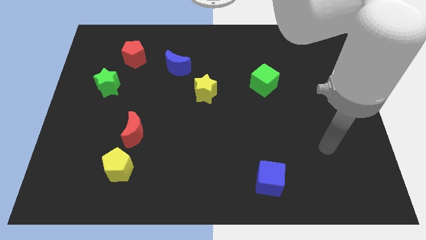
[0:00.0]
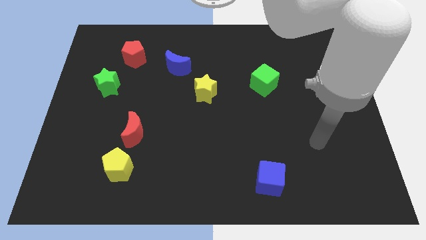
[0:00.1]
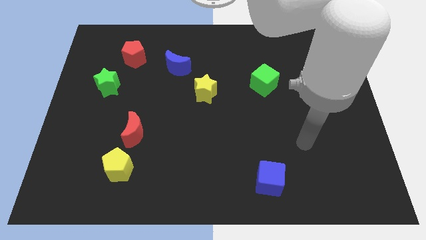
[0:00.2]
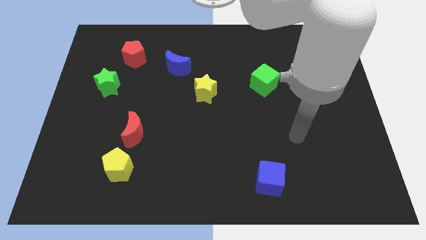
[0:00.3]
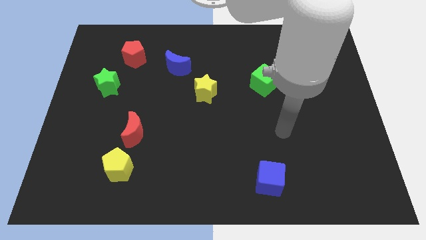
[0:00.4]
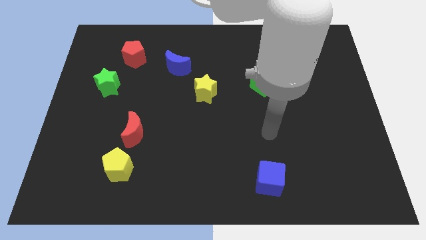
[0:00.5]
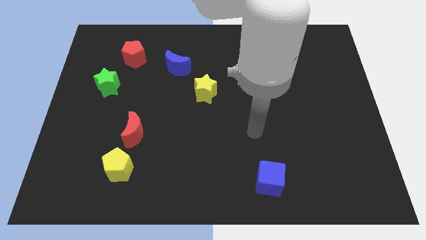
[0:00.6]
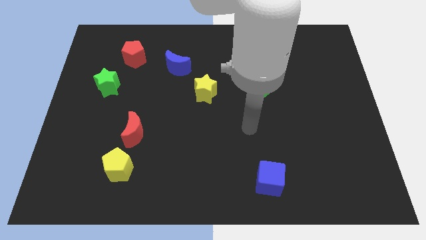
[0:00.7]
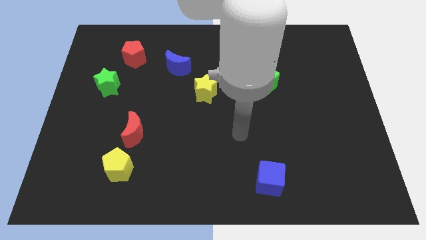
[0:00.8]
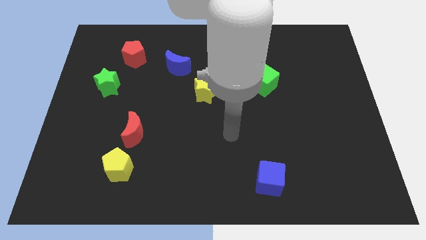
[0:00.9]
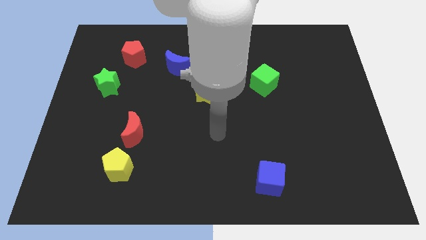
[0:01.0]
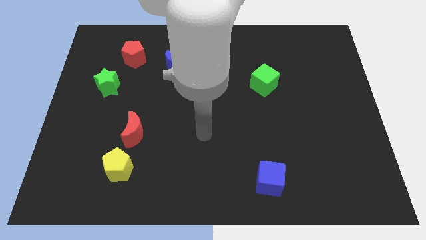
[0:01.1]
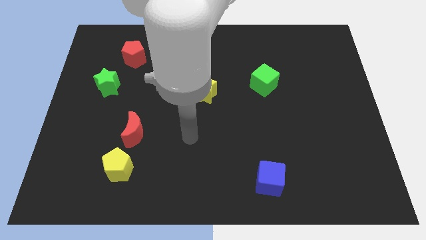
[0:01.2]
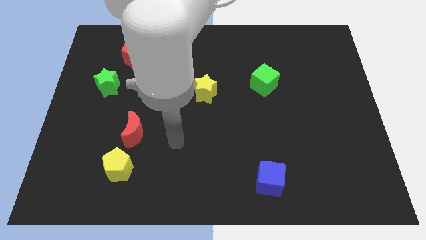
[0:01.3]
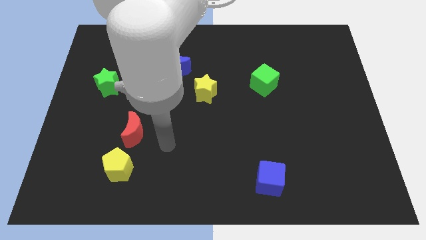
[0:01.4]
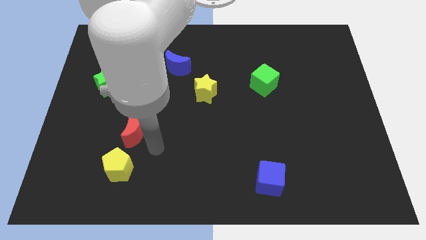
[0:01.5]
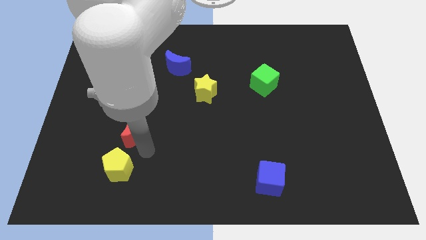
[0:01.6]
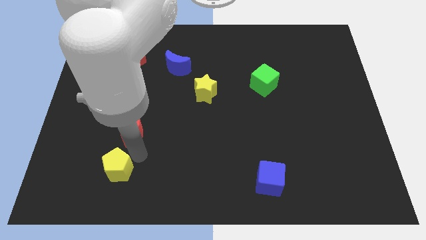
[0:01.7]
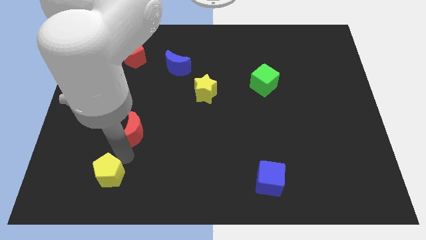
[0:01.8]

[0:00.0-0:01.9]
move the red moon away from the yellow pentagon

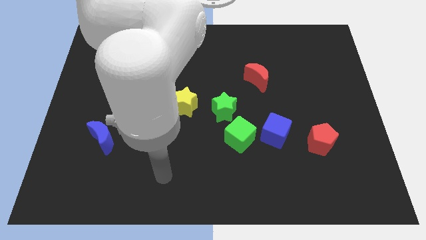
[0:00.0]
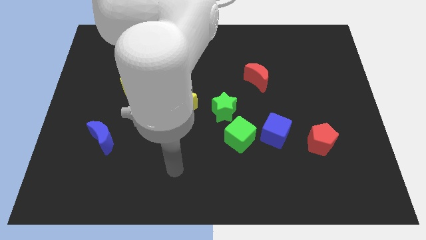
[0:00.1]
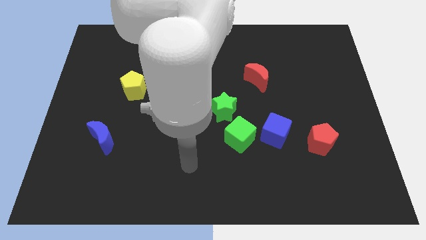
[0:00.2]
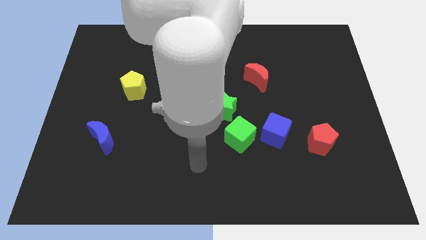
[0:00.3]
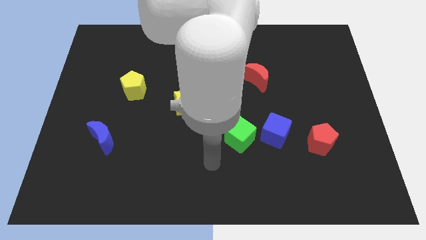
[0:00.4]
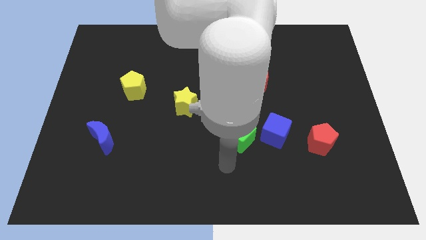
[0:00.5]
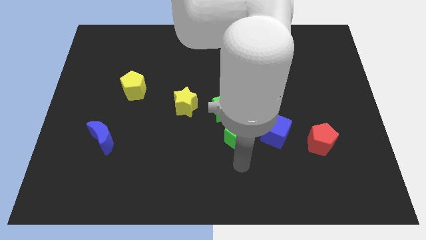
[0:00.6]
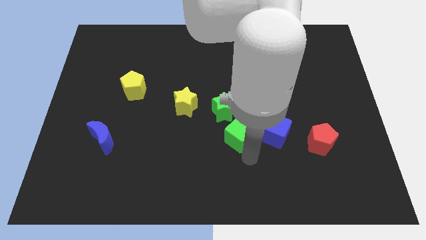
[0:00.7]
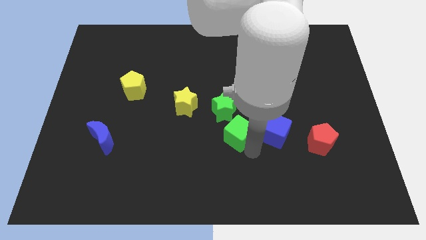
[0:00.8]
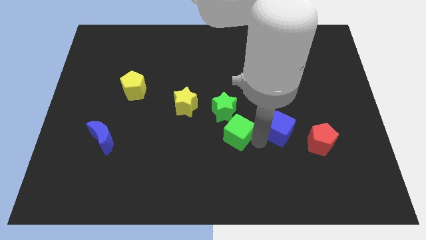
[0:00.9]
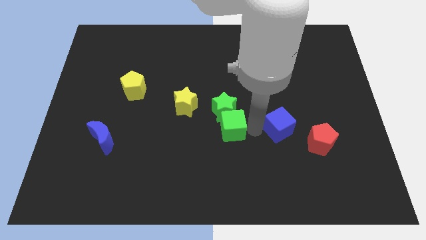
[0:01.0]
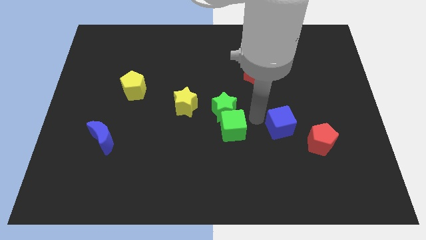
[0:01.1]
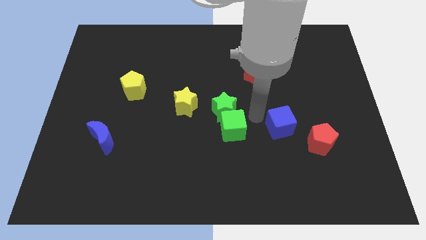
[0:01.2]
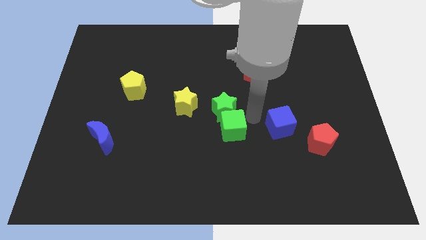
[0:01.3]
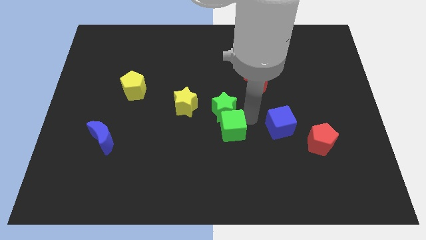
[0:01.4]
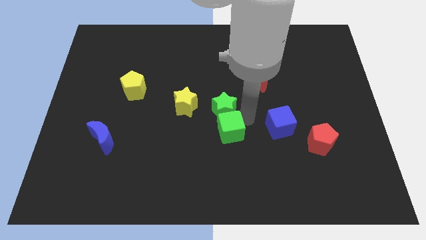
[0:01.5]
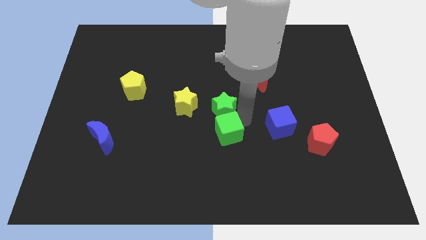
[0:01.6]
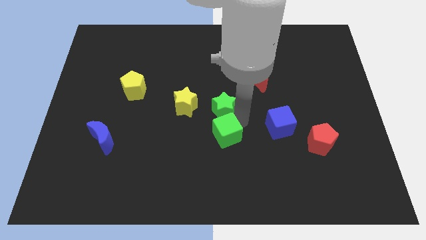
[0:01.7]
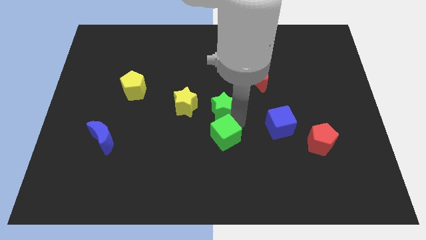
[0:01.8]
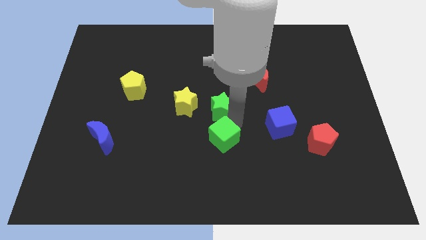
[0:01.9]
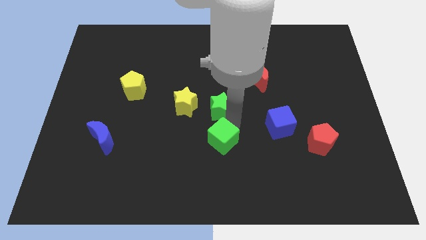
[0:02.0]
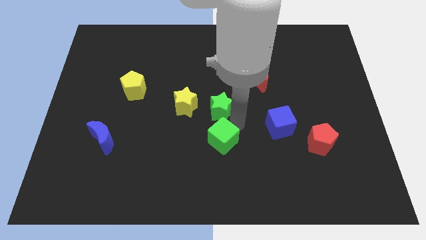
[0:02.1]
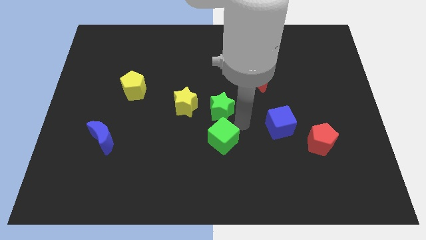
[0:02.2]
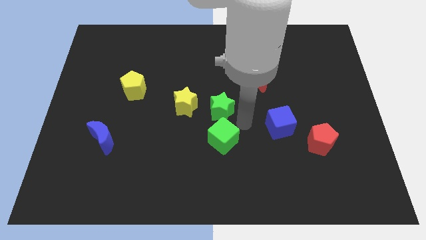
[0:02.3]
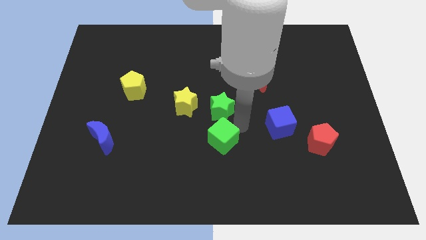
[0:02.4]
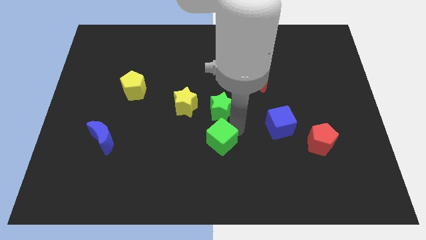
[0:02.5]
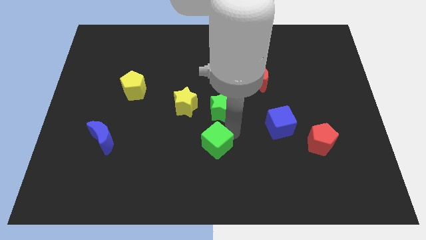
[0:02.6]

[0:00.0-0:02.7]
separate the green cube from the green star and blue cube

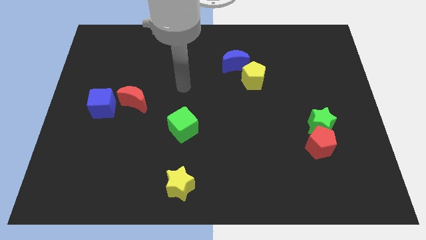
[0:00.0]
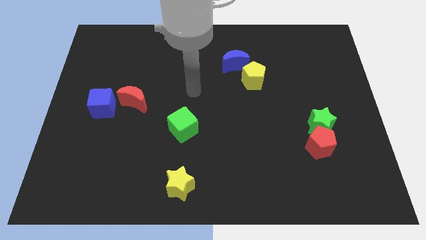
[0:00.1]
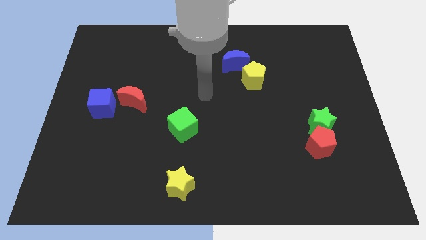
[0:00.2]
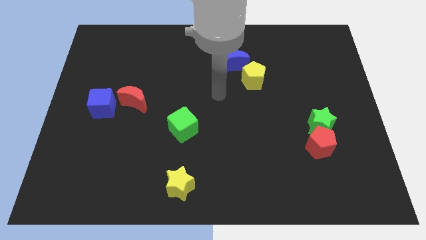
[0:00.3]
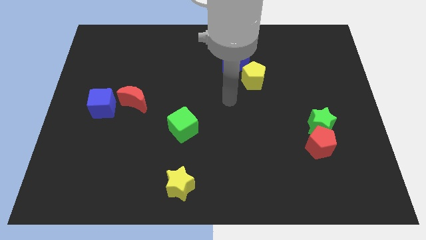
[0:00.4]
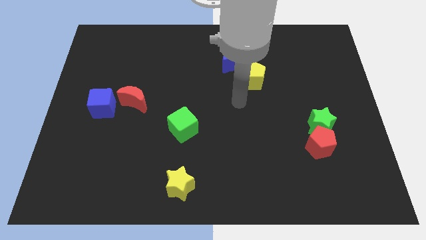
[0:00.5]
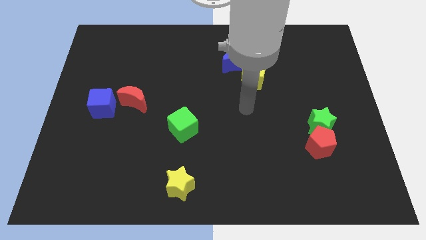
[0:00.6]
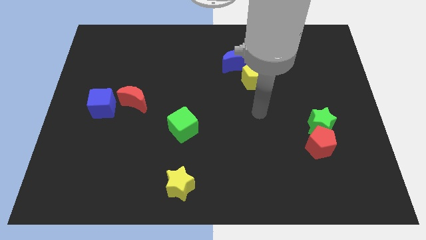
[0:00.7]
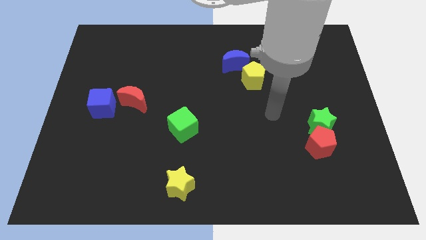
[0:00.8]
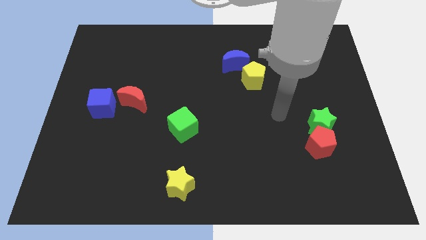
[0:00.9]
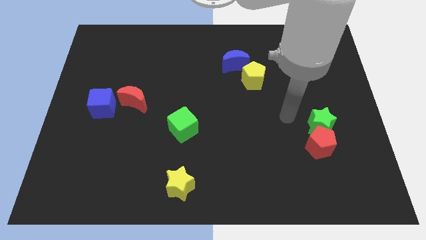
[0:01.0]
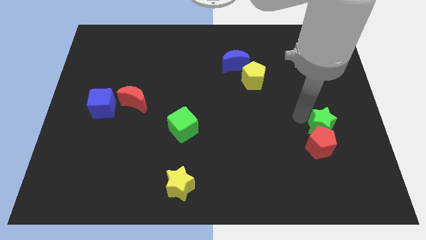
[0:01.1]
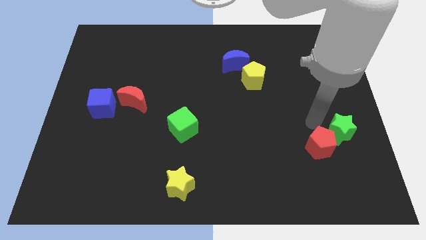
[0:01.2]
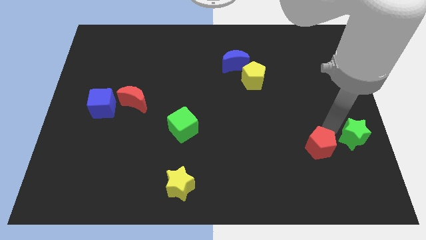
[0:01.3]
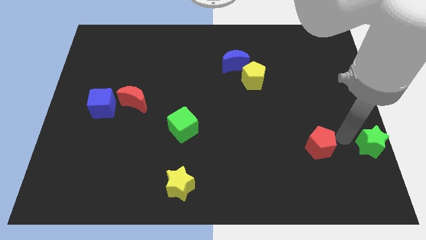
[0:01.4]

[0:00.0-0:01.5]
move the red pentagon away from the green star

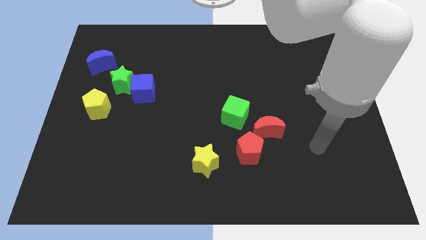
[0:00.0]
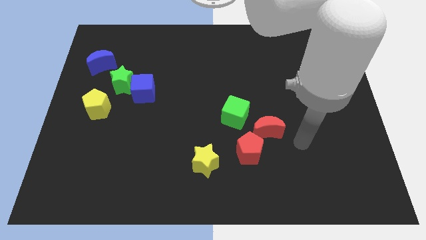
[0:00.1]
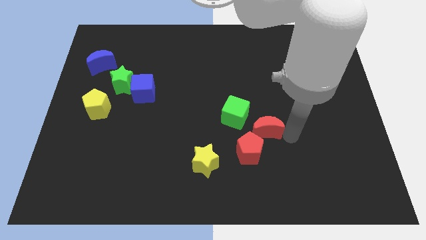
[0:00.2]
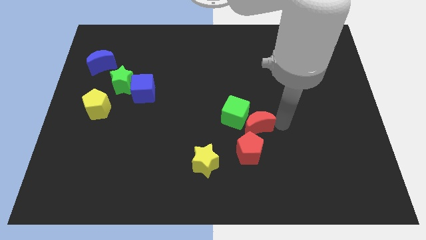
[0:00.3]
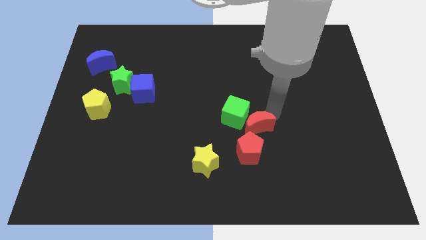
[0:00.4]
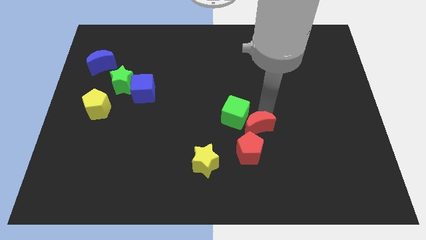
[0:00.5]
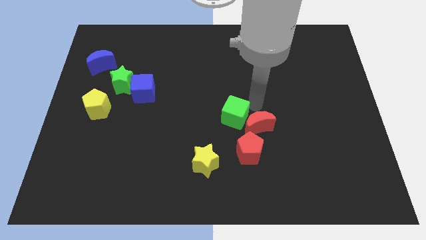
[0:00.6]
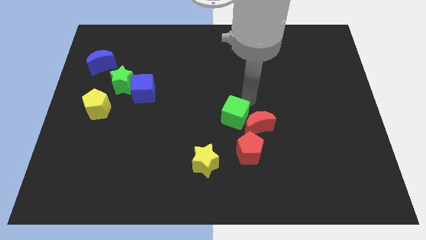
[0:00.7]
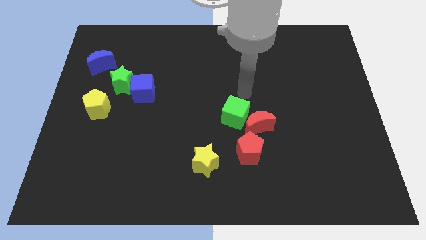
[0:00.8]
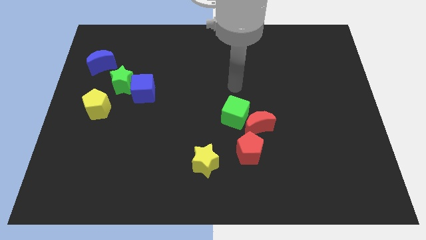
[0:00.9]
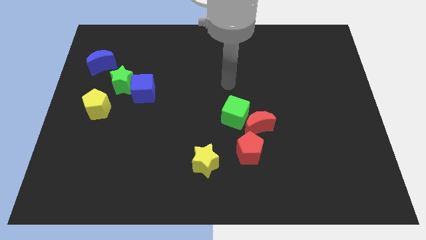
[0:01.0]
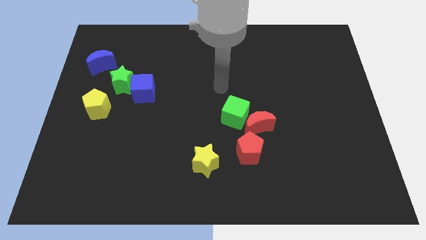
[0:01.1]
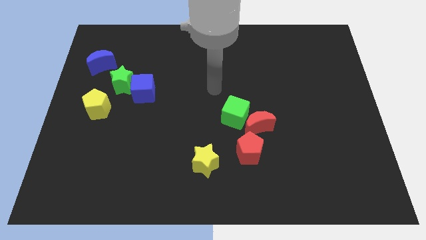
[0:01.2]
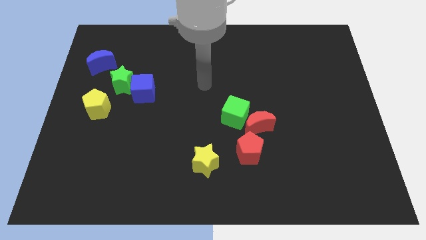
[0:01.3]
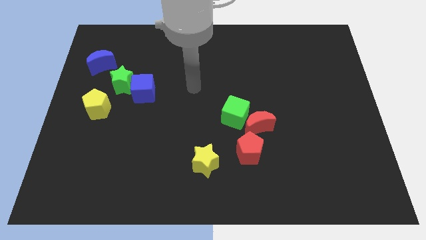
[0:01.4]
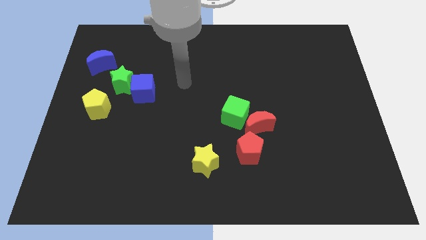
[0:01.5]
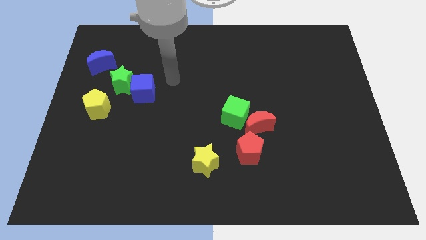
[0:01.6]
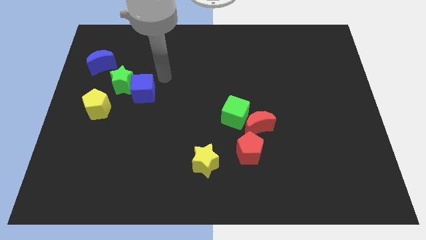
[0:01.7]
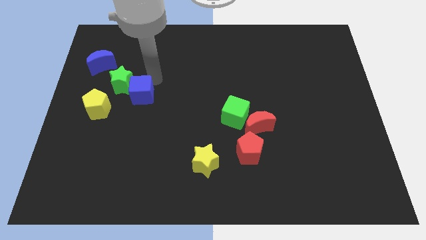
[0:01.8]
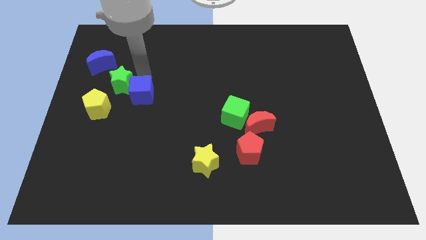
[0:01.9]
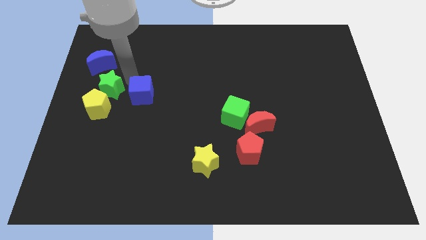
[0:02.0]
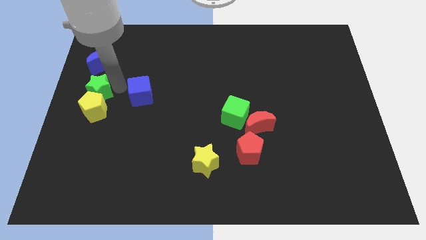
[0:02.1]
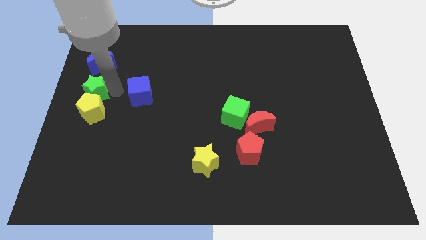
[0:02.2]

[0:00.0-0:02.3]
move the blue cube away from the green star

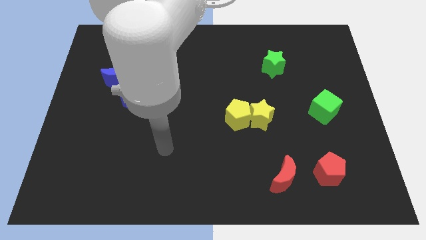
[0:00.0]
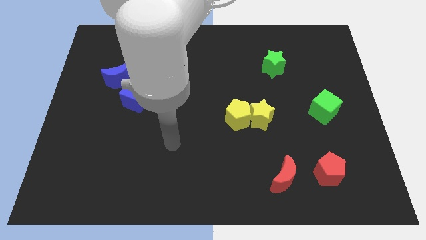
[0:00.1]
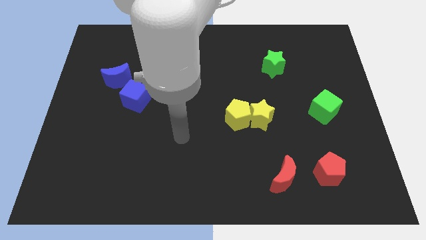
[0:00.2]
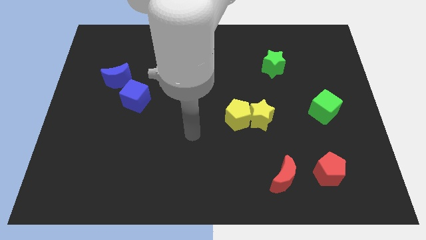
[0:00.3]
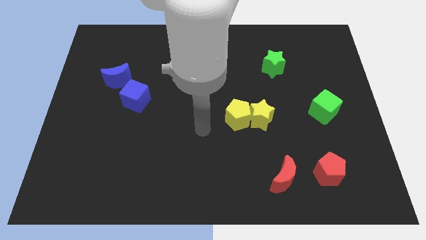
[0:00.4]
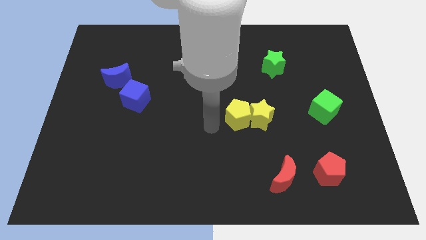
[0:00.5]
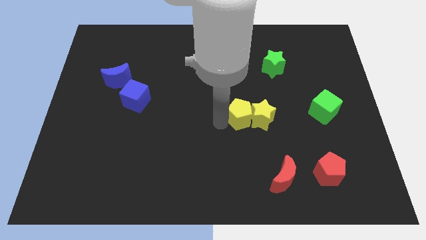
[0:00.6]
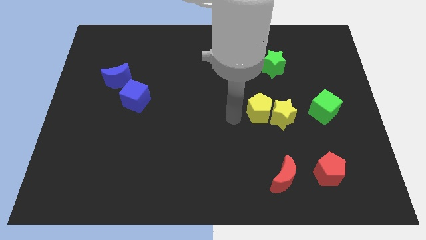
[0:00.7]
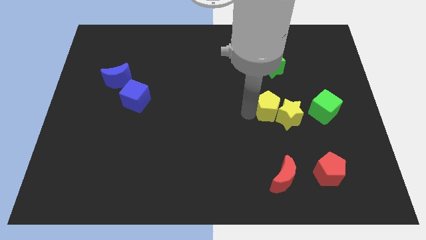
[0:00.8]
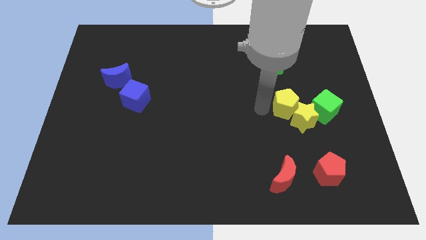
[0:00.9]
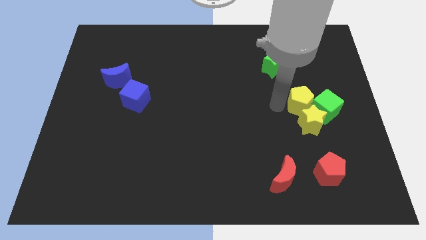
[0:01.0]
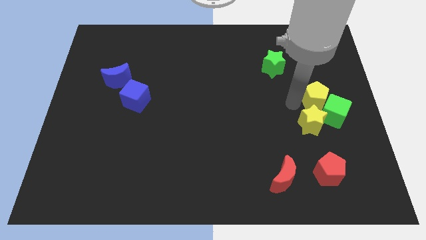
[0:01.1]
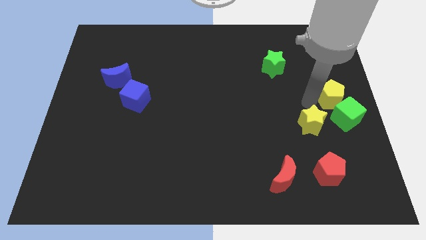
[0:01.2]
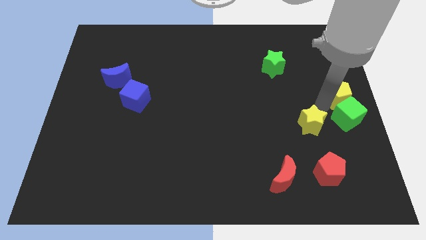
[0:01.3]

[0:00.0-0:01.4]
separate the yellow star from the yellow pentagon
